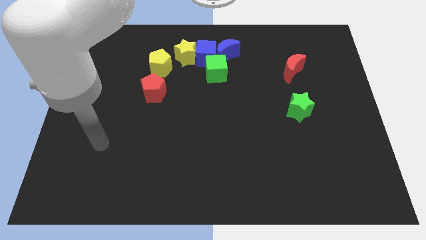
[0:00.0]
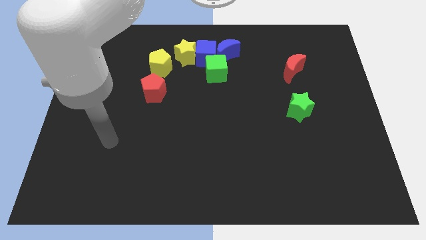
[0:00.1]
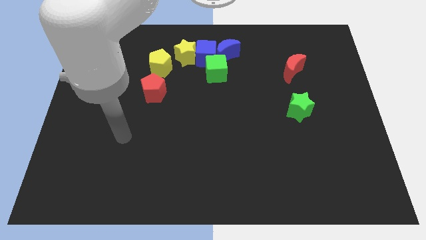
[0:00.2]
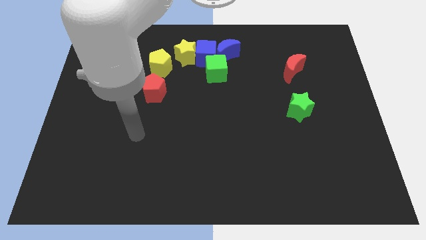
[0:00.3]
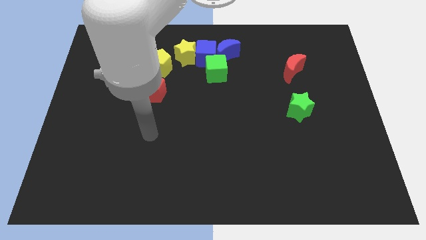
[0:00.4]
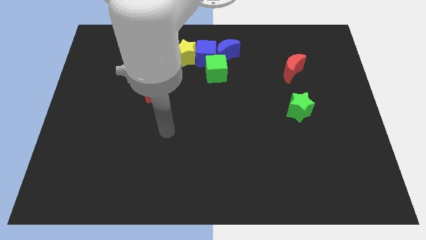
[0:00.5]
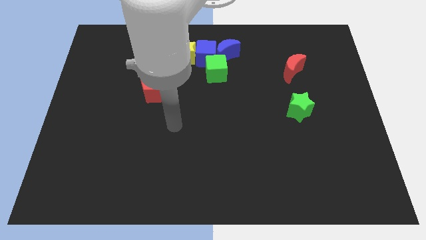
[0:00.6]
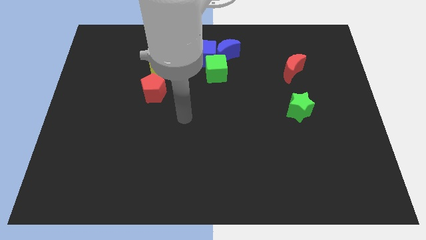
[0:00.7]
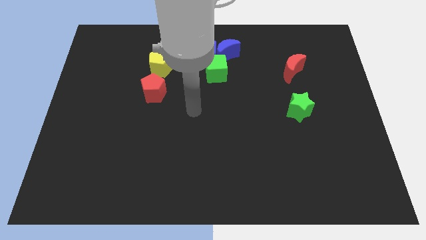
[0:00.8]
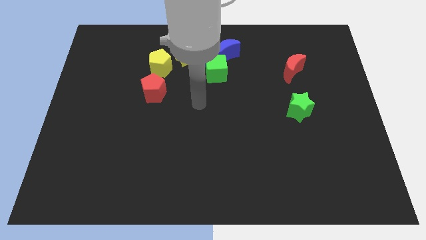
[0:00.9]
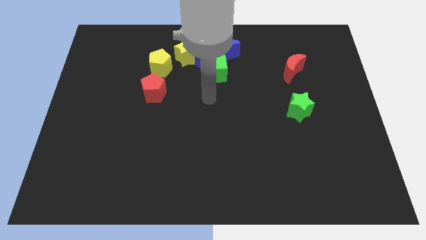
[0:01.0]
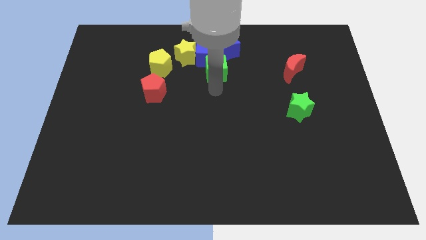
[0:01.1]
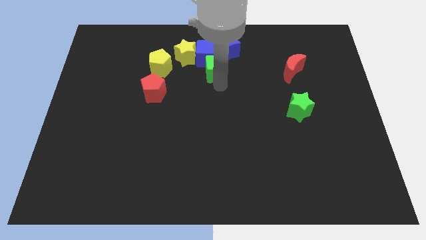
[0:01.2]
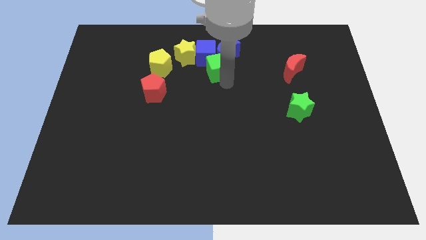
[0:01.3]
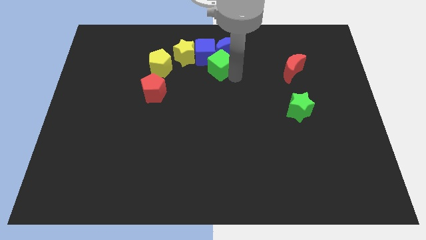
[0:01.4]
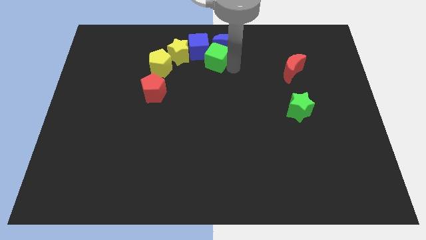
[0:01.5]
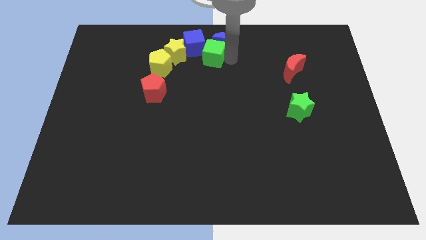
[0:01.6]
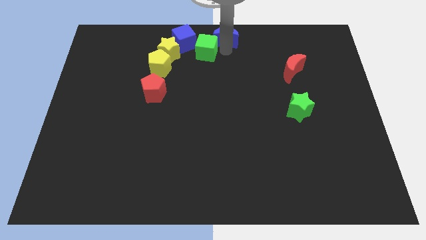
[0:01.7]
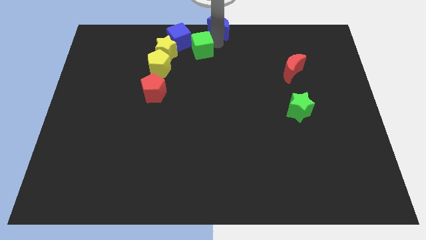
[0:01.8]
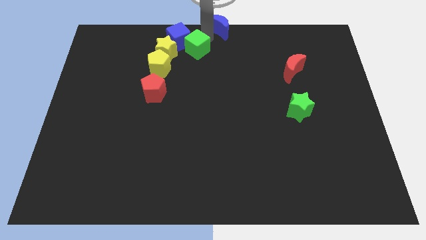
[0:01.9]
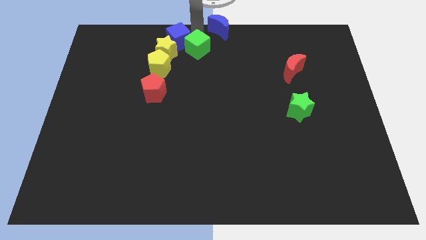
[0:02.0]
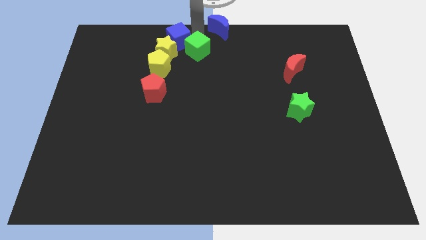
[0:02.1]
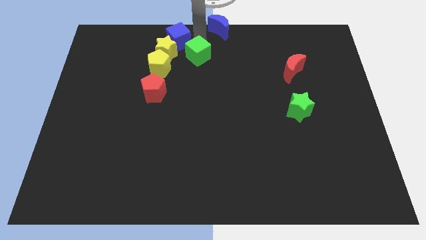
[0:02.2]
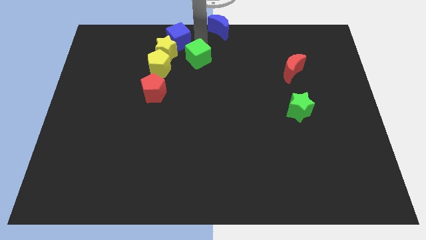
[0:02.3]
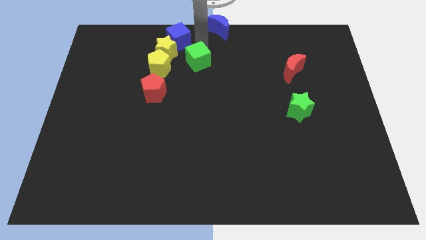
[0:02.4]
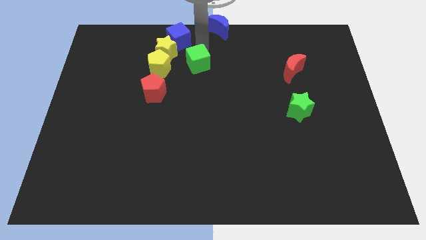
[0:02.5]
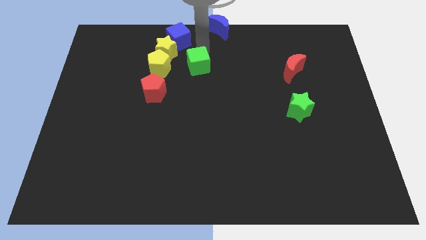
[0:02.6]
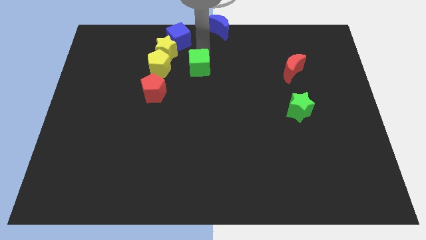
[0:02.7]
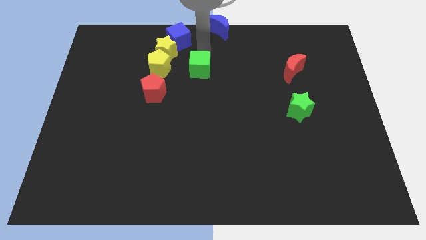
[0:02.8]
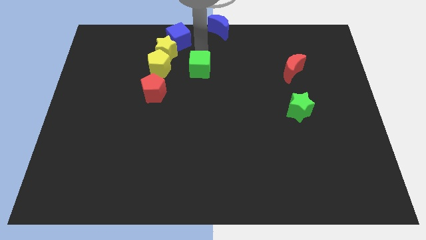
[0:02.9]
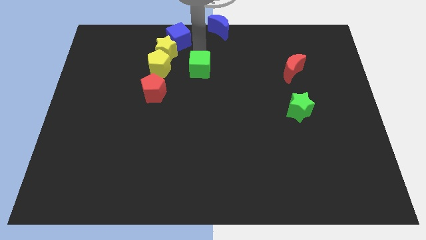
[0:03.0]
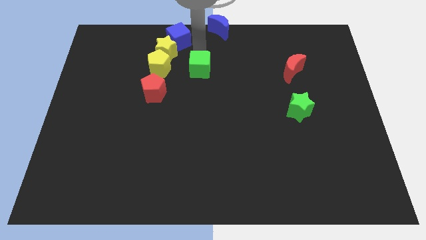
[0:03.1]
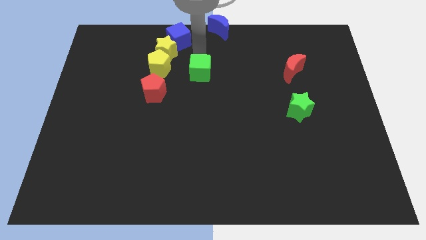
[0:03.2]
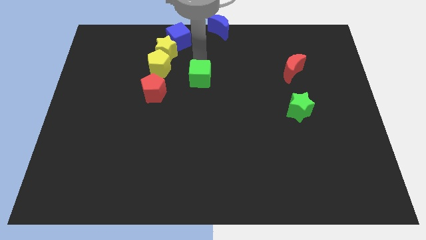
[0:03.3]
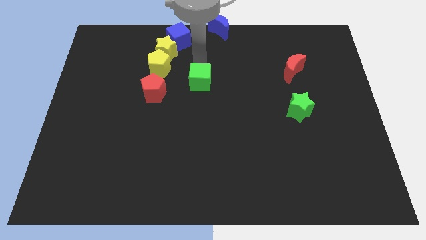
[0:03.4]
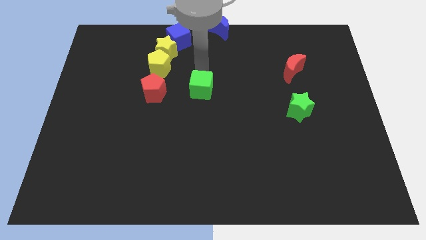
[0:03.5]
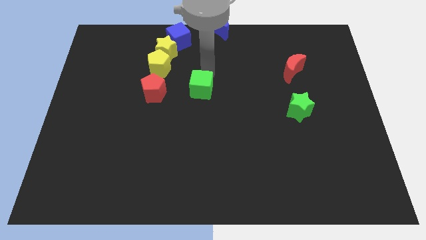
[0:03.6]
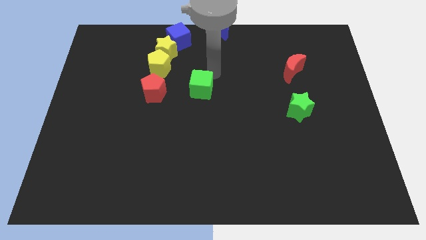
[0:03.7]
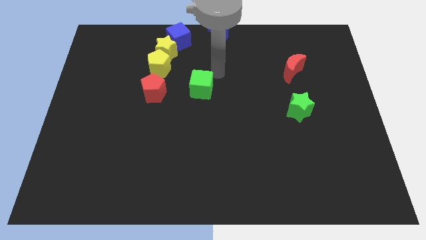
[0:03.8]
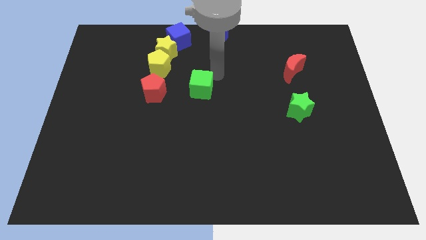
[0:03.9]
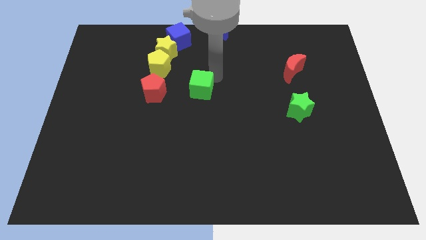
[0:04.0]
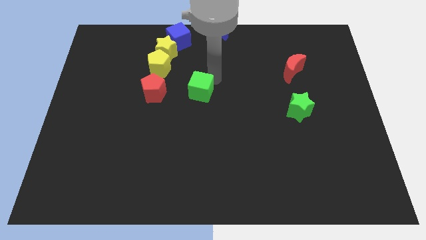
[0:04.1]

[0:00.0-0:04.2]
move the green cube down and then left a little

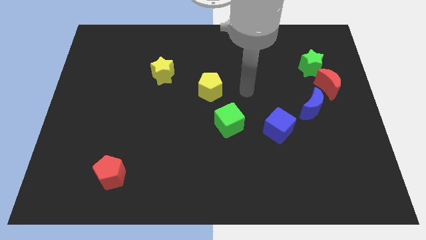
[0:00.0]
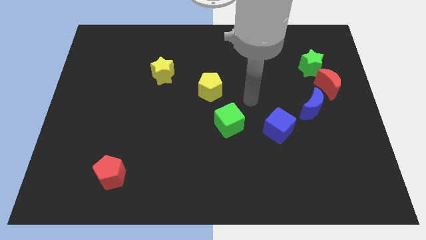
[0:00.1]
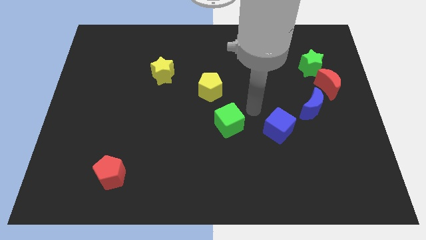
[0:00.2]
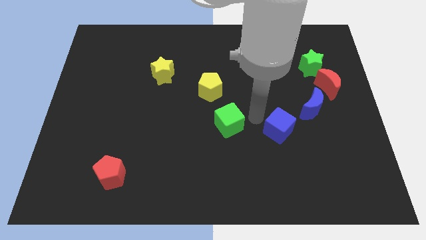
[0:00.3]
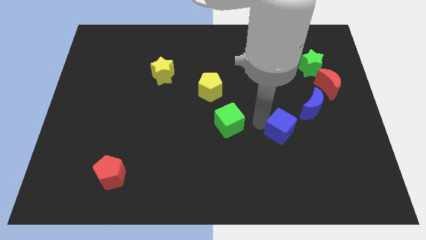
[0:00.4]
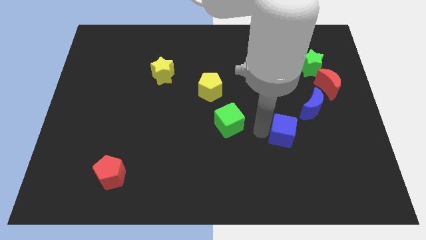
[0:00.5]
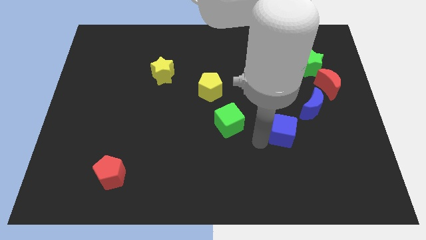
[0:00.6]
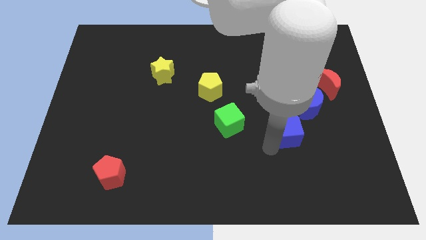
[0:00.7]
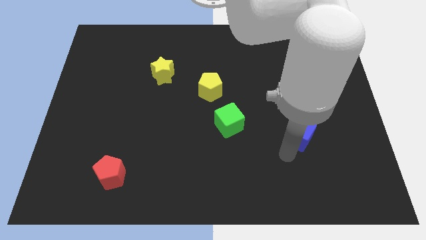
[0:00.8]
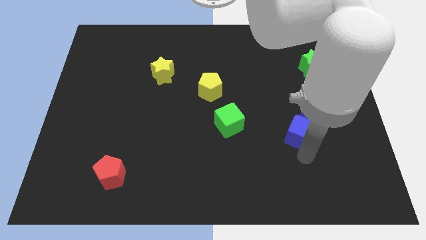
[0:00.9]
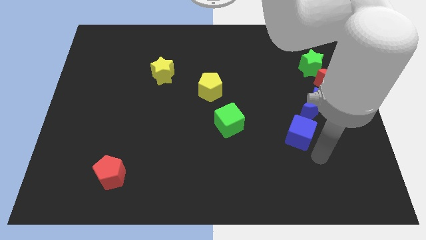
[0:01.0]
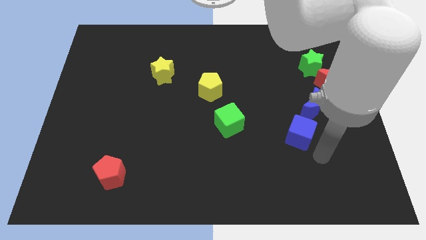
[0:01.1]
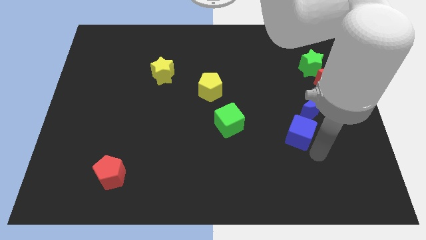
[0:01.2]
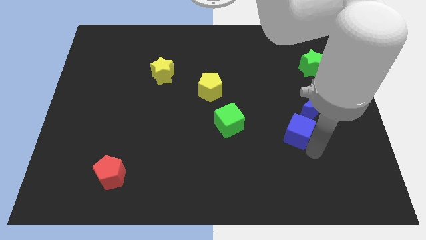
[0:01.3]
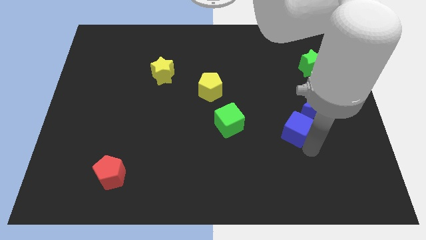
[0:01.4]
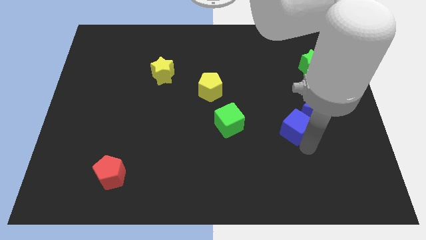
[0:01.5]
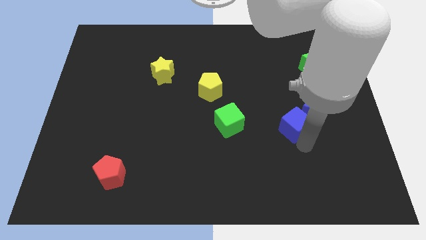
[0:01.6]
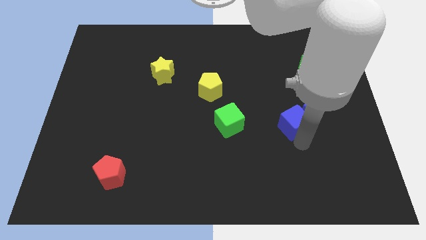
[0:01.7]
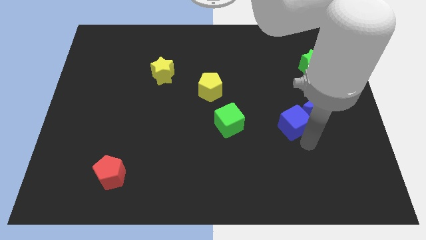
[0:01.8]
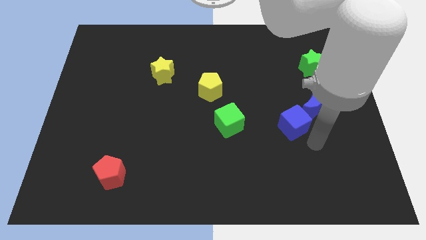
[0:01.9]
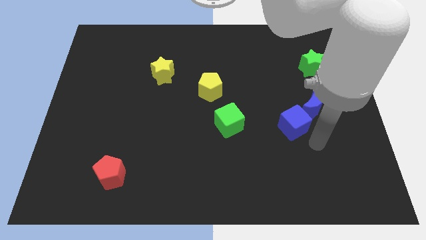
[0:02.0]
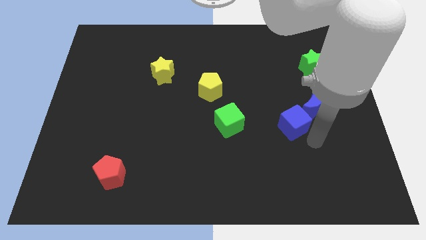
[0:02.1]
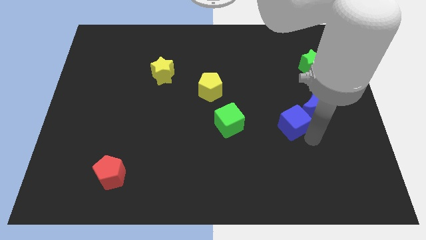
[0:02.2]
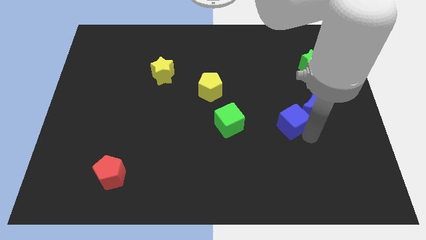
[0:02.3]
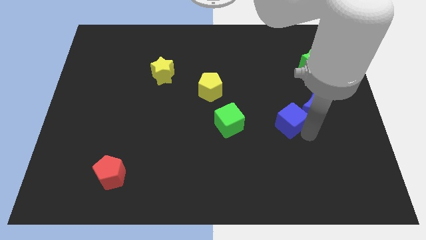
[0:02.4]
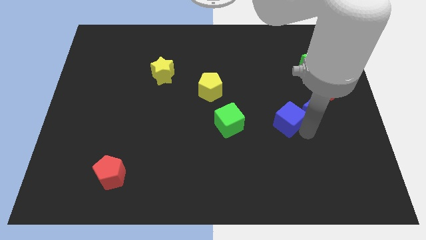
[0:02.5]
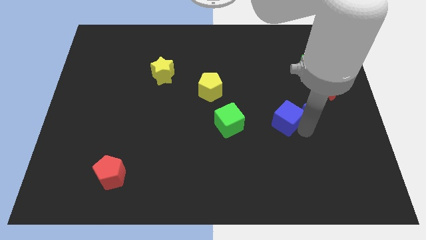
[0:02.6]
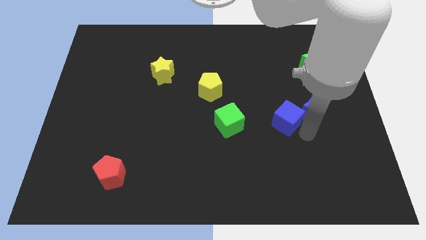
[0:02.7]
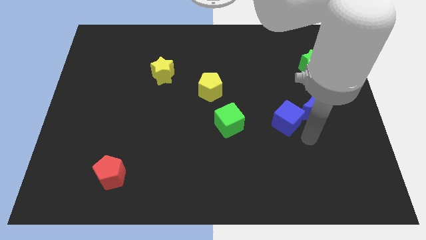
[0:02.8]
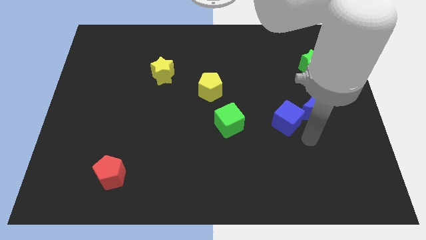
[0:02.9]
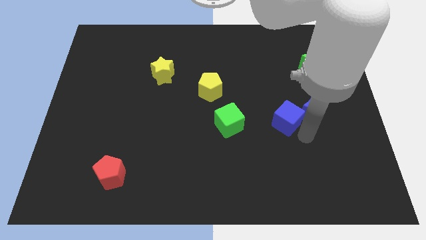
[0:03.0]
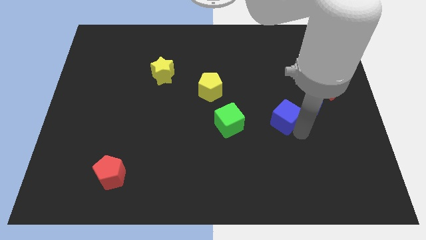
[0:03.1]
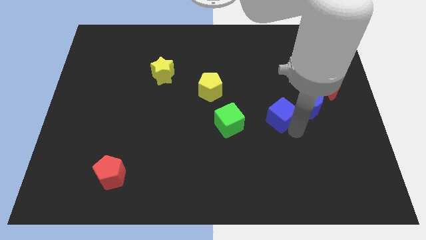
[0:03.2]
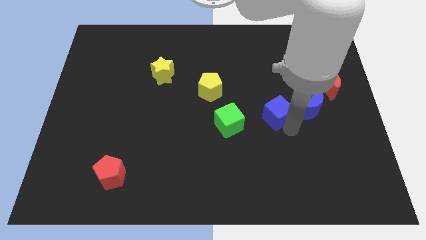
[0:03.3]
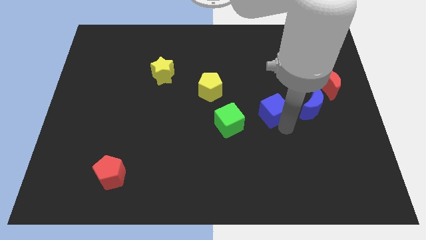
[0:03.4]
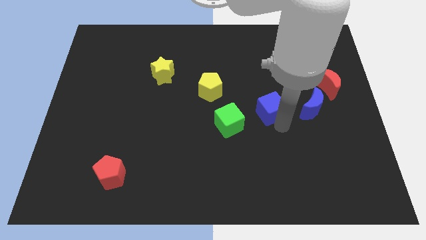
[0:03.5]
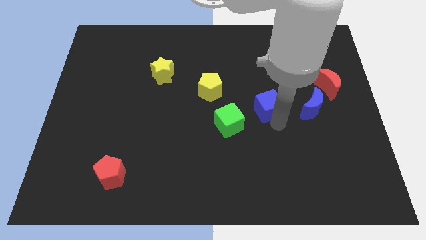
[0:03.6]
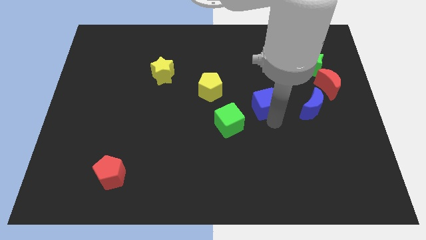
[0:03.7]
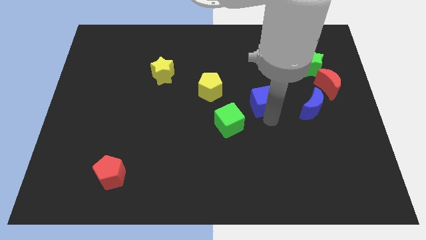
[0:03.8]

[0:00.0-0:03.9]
move the blue cube a little up
